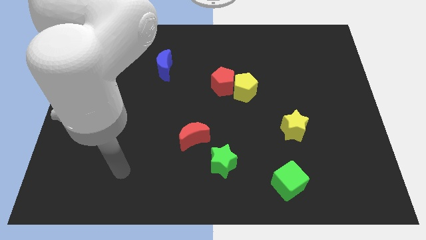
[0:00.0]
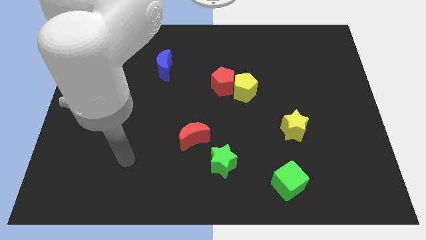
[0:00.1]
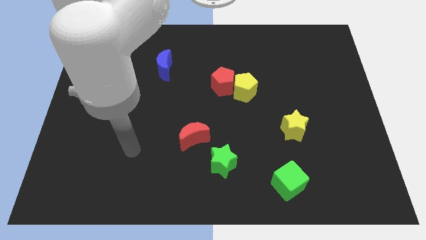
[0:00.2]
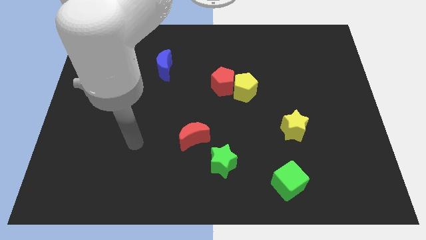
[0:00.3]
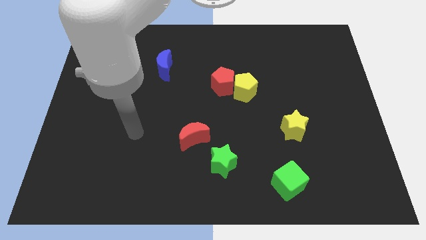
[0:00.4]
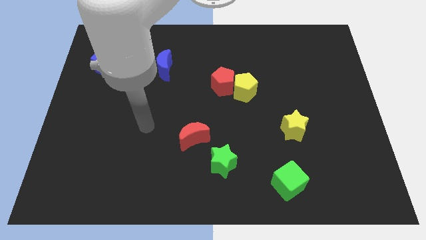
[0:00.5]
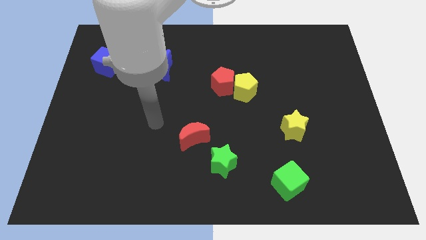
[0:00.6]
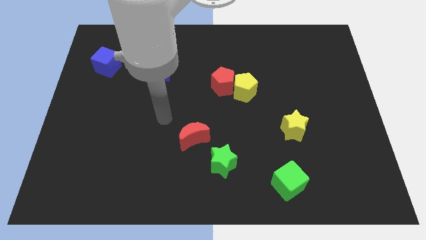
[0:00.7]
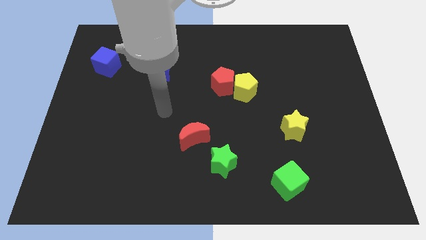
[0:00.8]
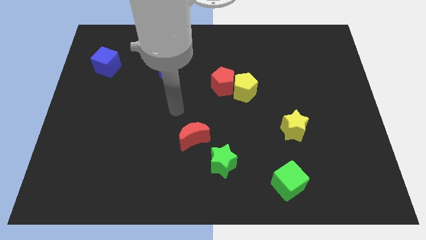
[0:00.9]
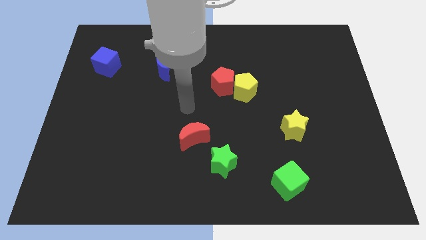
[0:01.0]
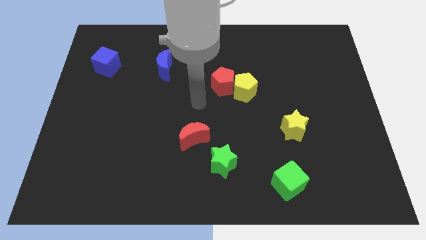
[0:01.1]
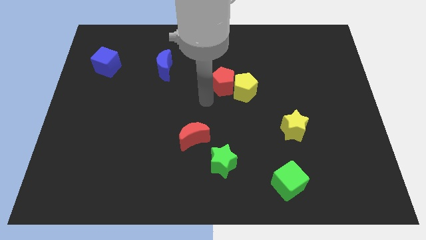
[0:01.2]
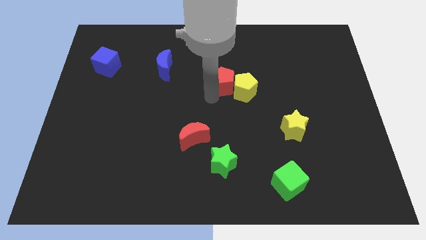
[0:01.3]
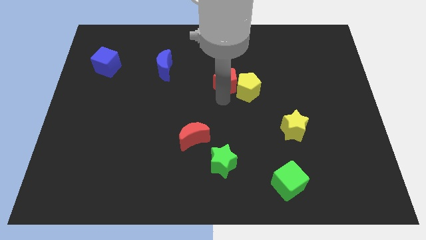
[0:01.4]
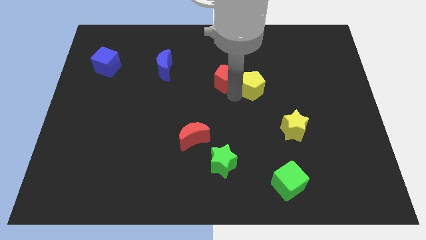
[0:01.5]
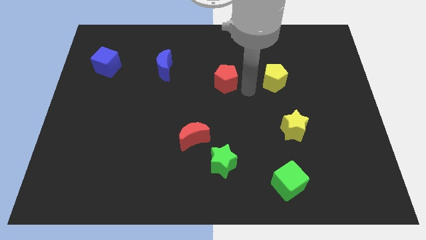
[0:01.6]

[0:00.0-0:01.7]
separate the red pentagon from the yellow pentagon

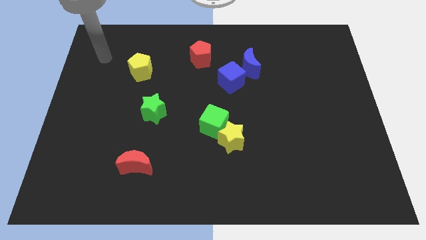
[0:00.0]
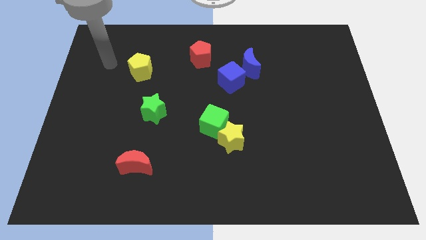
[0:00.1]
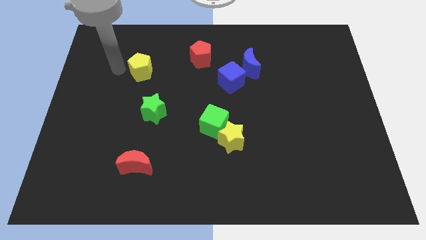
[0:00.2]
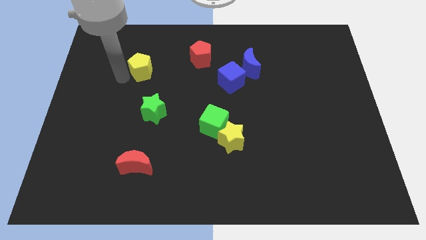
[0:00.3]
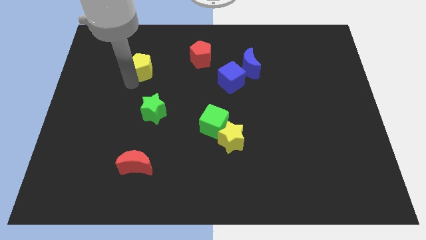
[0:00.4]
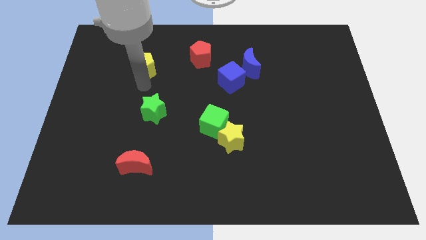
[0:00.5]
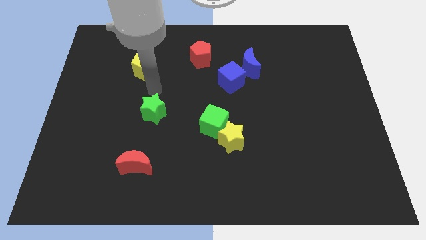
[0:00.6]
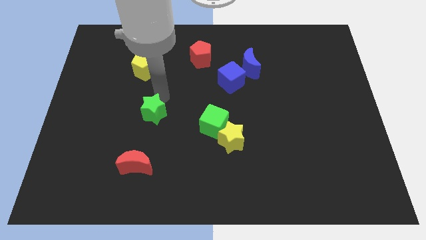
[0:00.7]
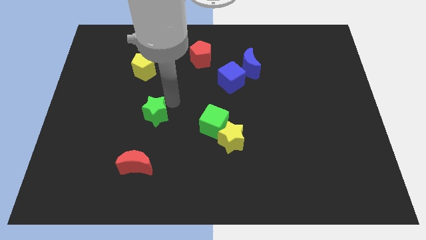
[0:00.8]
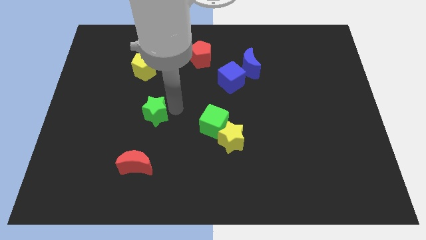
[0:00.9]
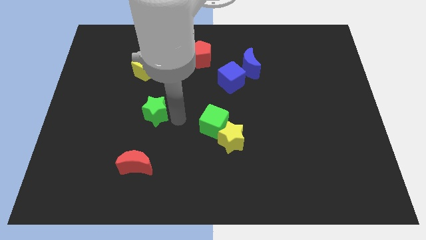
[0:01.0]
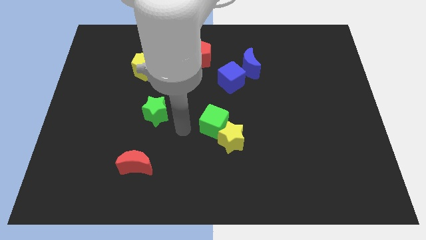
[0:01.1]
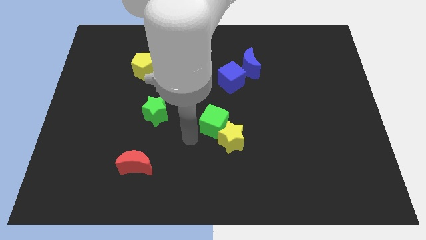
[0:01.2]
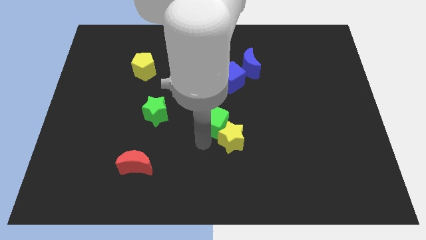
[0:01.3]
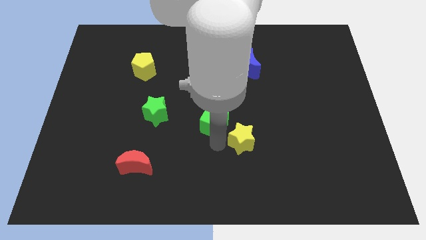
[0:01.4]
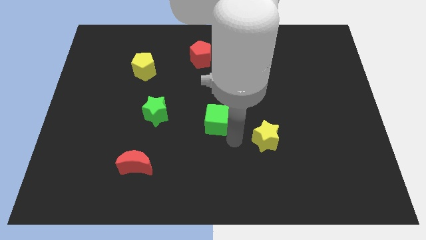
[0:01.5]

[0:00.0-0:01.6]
pull the green cube apart from the yellow star

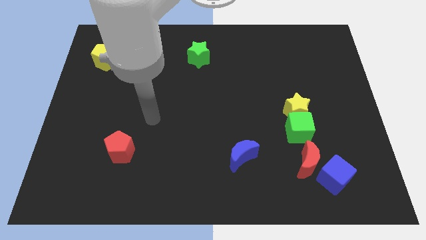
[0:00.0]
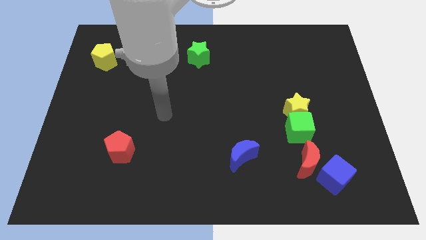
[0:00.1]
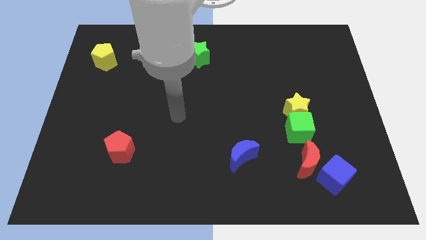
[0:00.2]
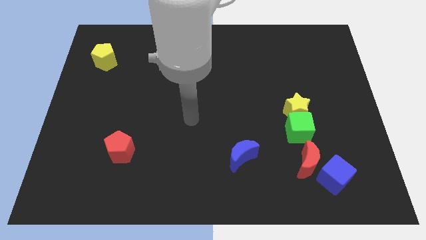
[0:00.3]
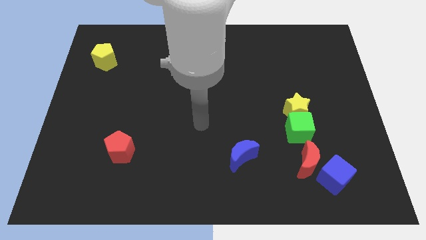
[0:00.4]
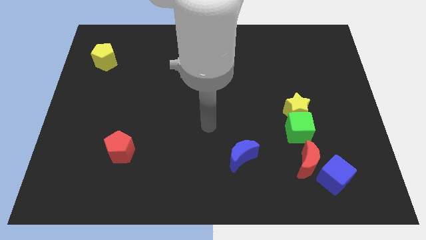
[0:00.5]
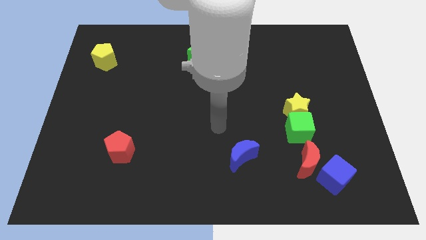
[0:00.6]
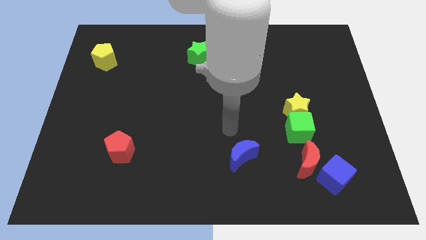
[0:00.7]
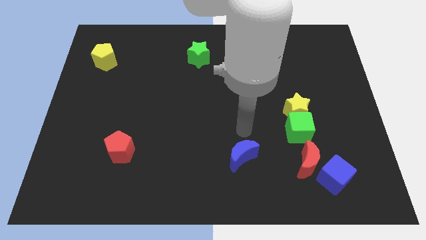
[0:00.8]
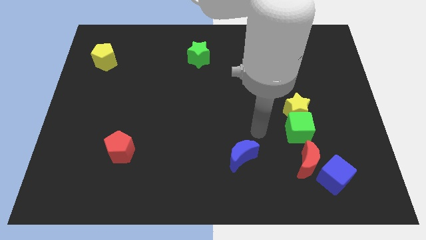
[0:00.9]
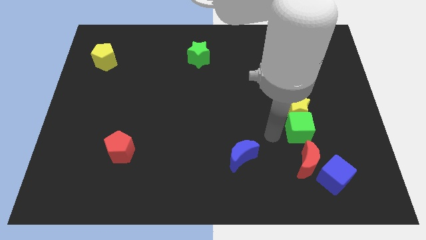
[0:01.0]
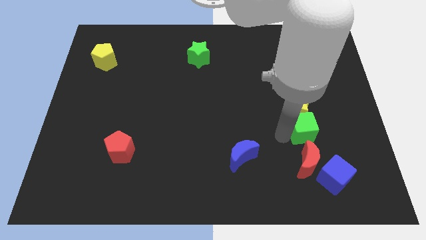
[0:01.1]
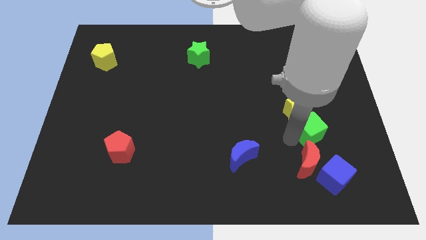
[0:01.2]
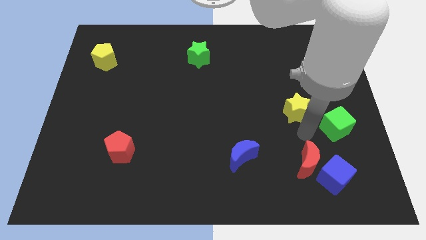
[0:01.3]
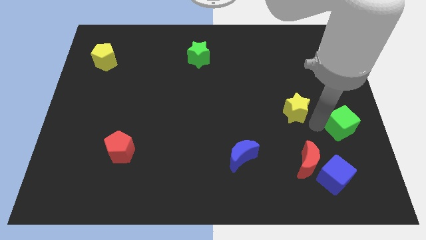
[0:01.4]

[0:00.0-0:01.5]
move the yellow star away from the green cube

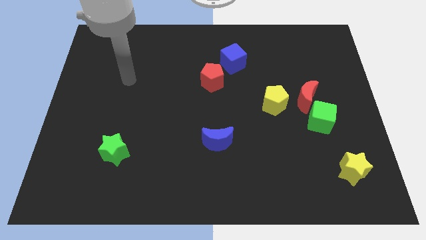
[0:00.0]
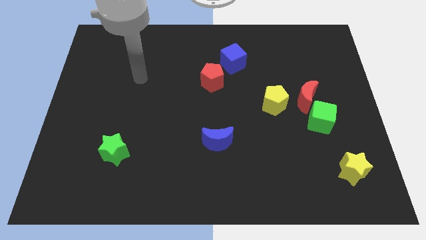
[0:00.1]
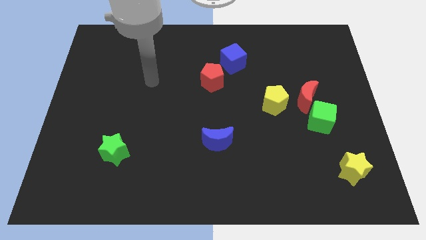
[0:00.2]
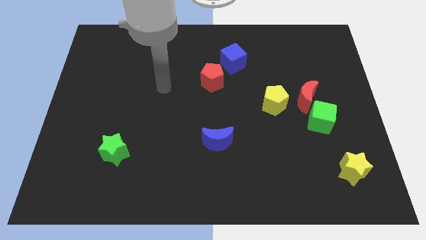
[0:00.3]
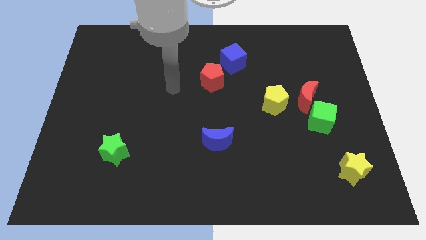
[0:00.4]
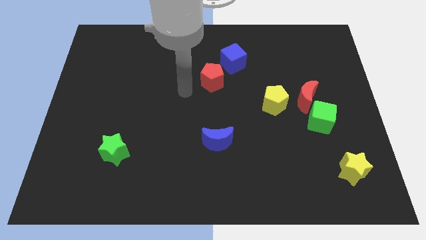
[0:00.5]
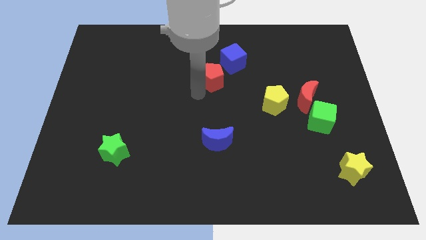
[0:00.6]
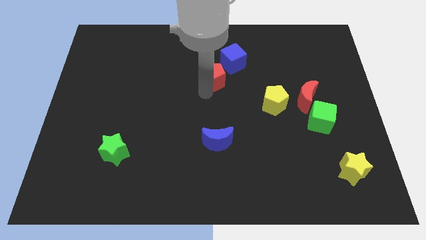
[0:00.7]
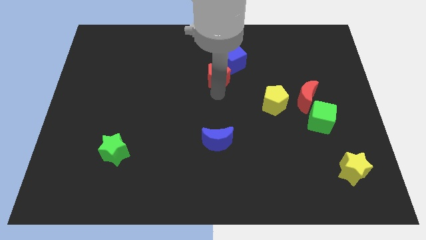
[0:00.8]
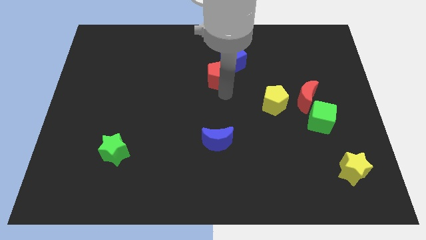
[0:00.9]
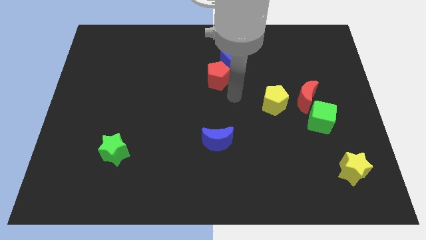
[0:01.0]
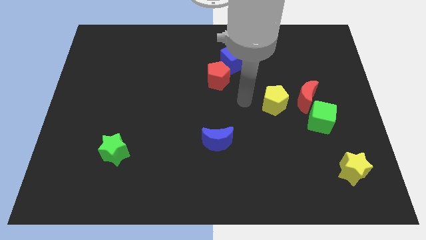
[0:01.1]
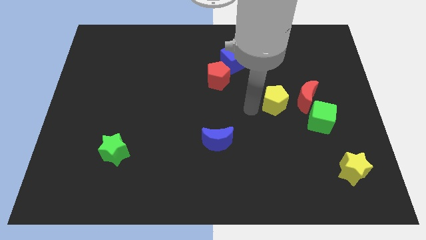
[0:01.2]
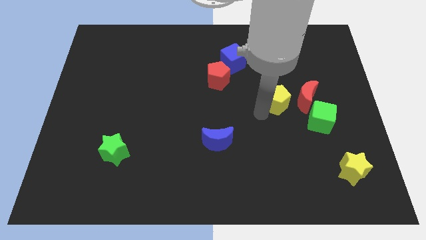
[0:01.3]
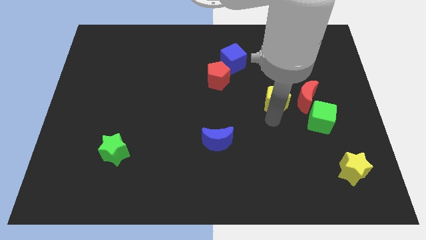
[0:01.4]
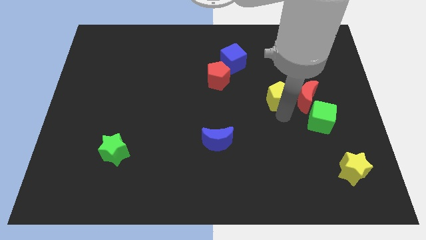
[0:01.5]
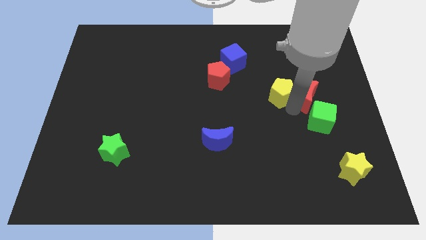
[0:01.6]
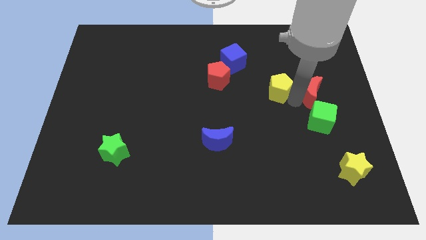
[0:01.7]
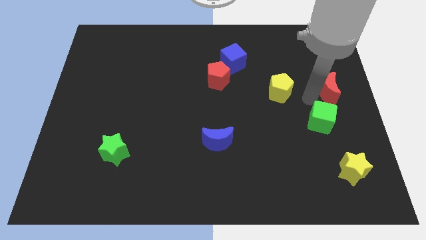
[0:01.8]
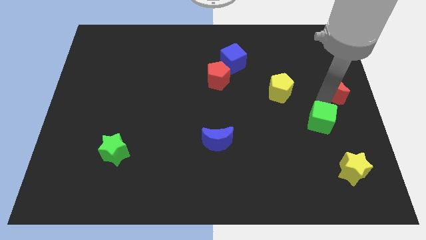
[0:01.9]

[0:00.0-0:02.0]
move the green cube away from the red moon

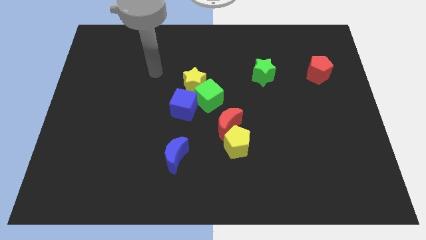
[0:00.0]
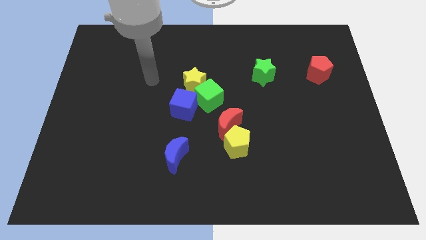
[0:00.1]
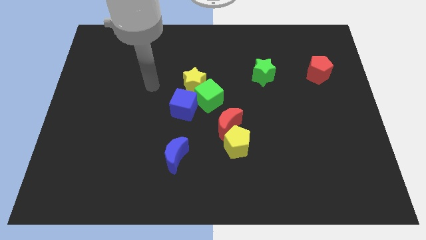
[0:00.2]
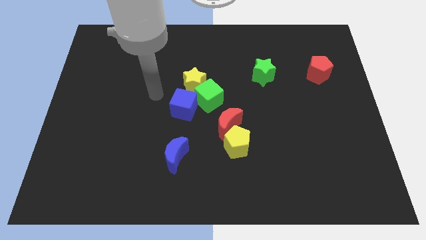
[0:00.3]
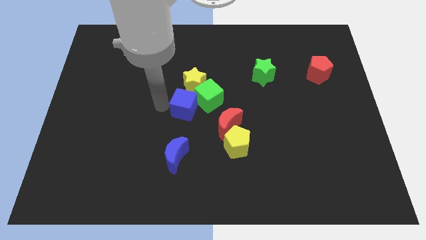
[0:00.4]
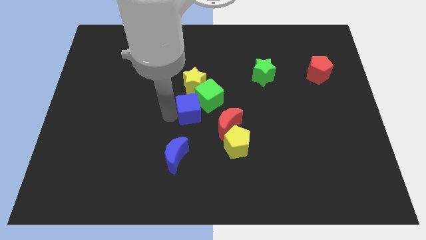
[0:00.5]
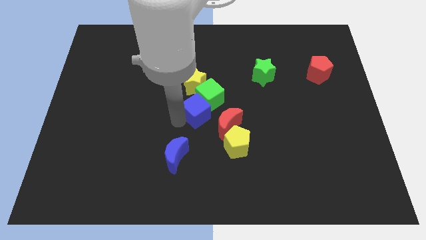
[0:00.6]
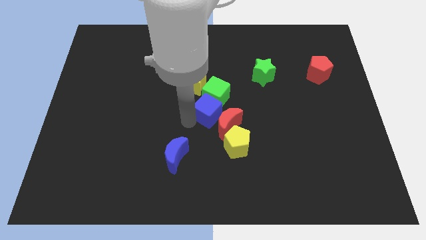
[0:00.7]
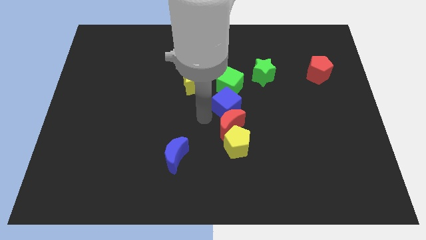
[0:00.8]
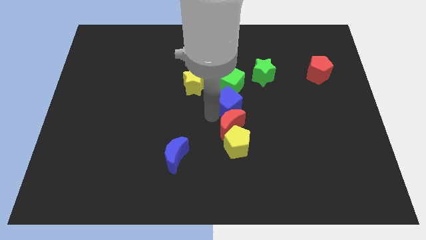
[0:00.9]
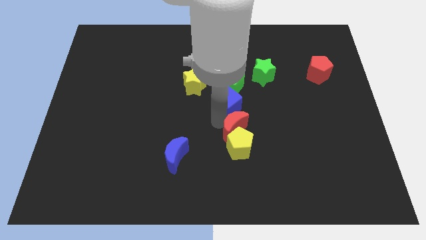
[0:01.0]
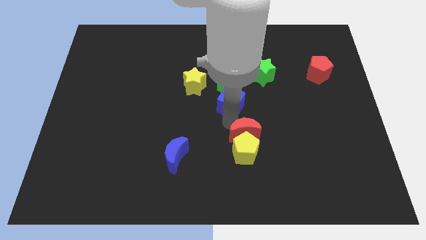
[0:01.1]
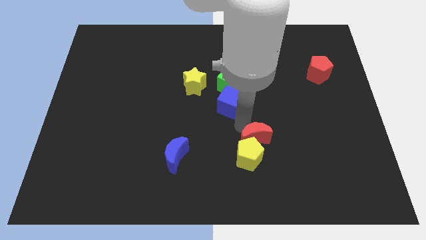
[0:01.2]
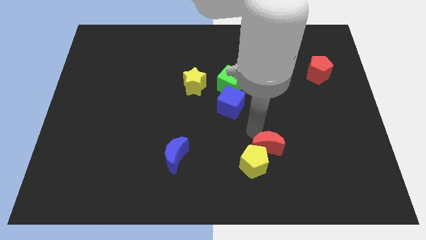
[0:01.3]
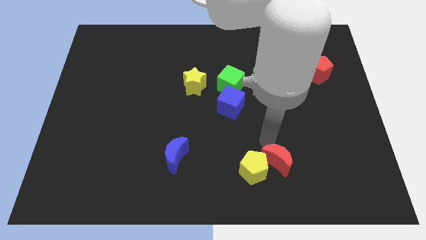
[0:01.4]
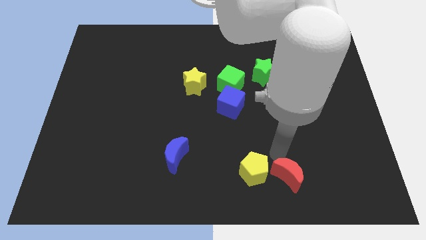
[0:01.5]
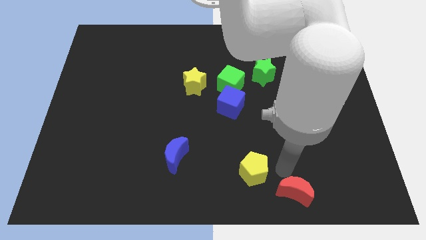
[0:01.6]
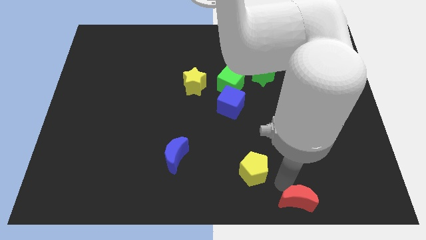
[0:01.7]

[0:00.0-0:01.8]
move the yellow pentagon away from the red moon

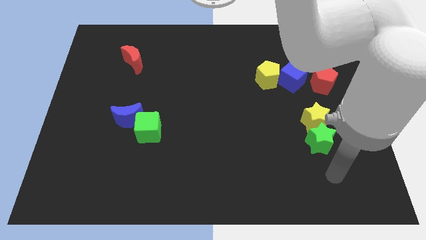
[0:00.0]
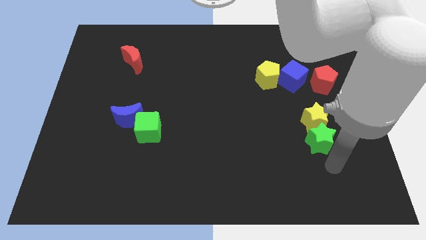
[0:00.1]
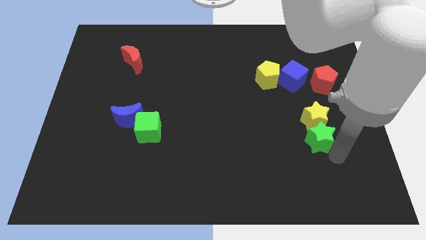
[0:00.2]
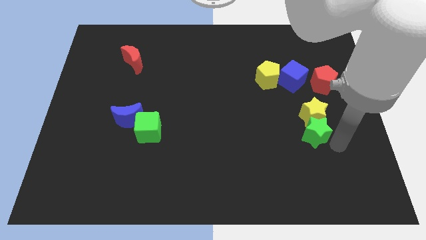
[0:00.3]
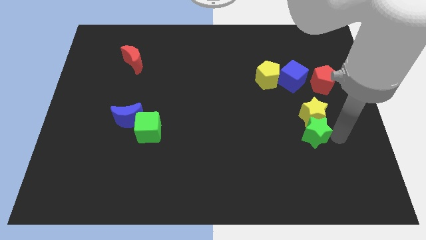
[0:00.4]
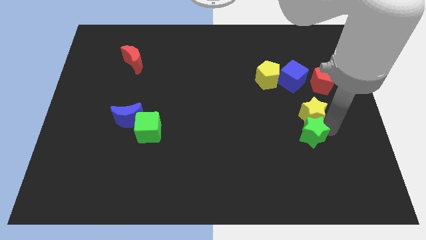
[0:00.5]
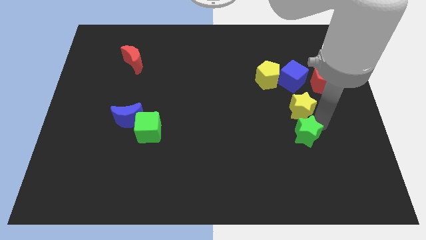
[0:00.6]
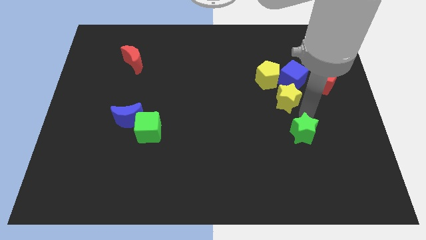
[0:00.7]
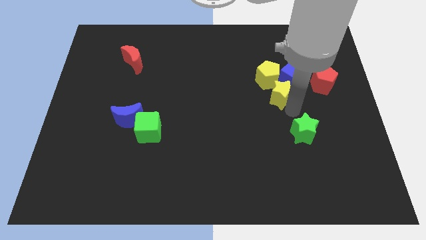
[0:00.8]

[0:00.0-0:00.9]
pull the green star apart from the yellow star
